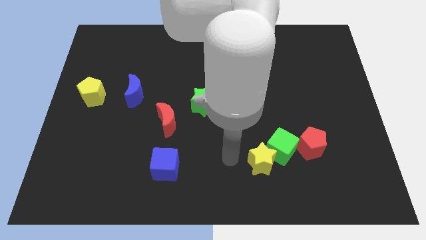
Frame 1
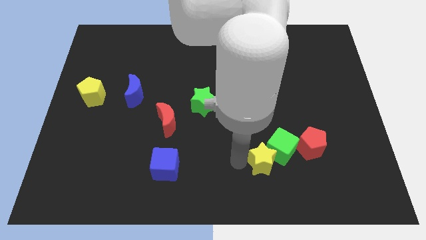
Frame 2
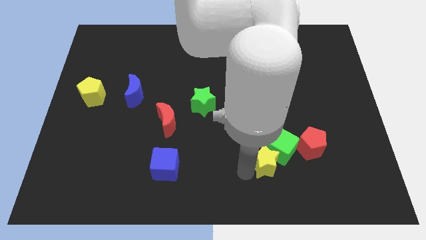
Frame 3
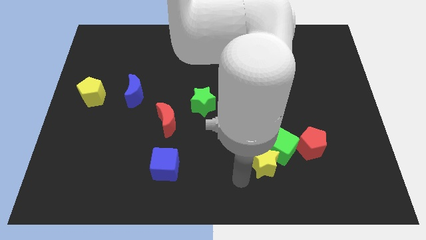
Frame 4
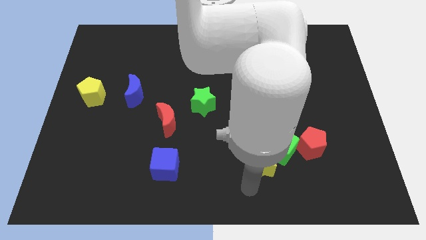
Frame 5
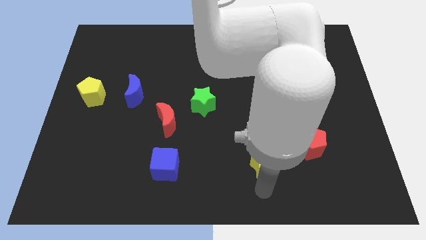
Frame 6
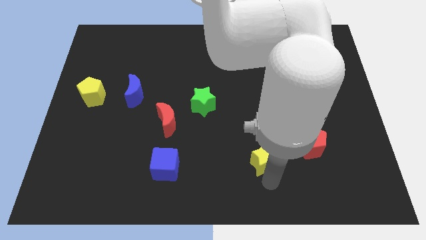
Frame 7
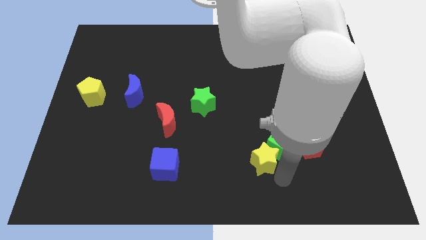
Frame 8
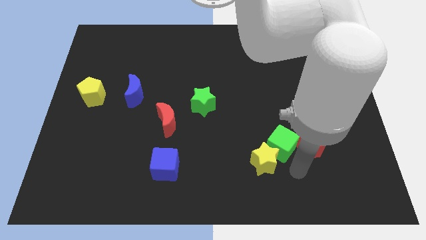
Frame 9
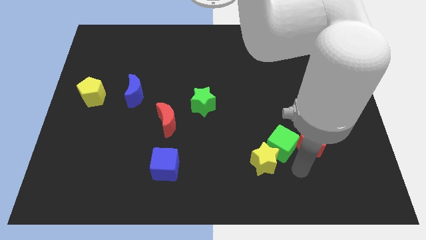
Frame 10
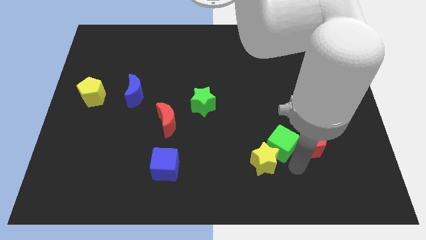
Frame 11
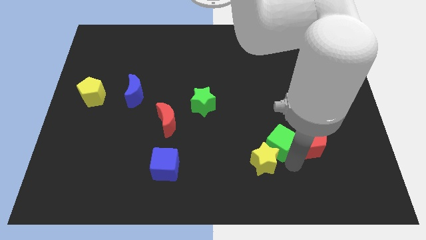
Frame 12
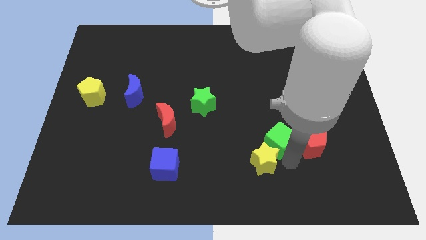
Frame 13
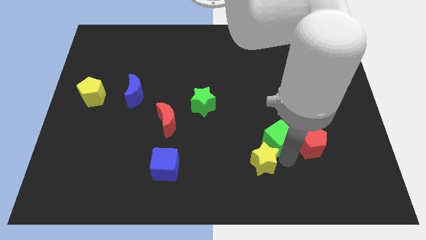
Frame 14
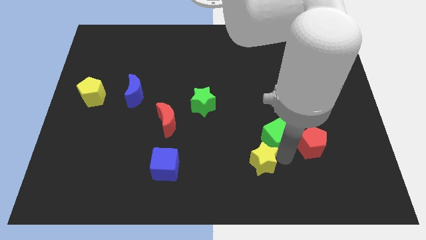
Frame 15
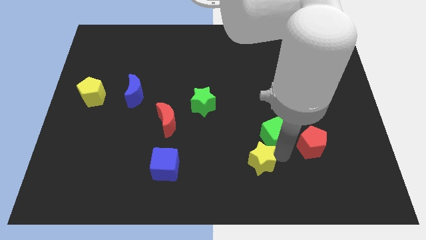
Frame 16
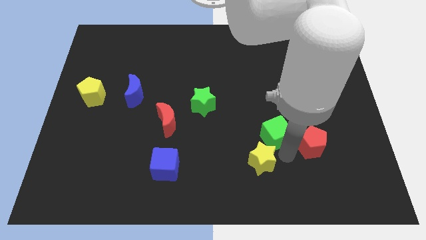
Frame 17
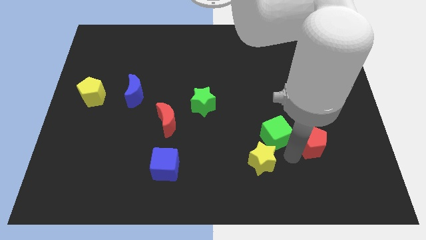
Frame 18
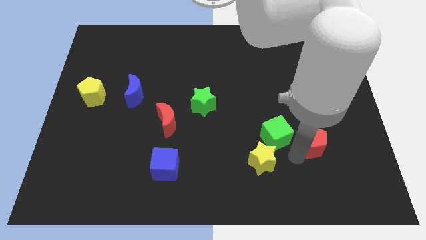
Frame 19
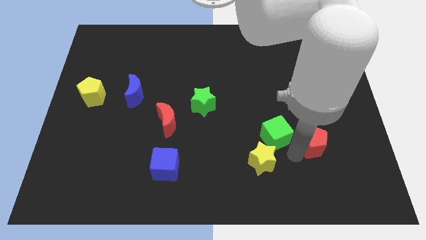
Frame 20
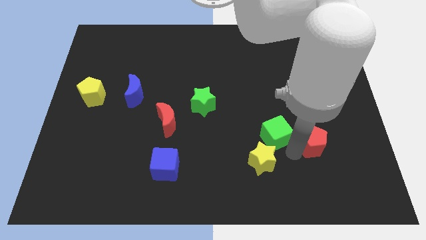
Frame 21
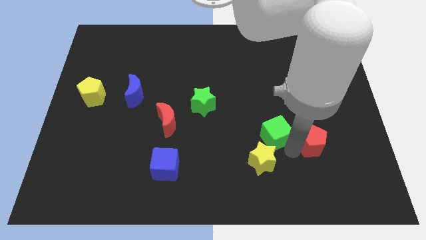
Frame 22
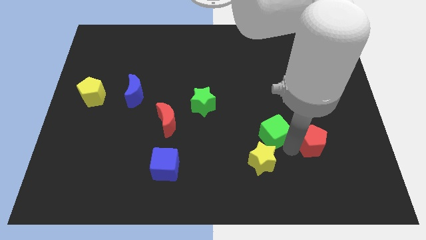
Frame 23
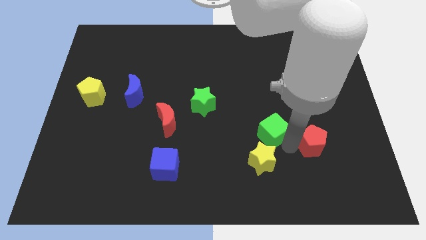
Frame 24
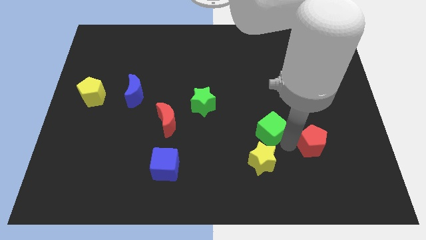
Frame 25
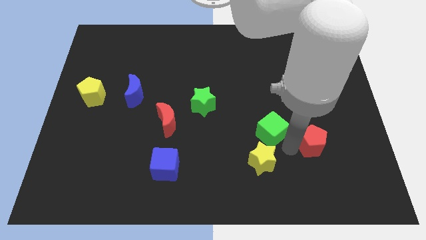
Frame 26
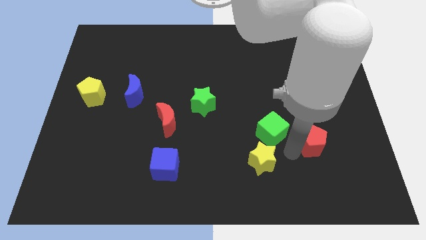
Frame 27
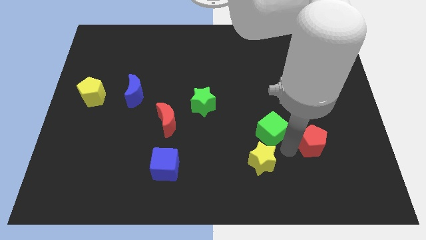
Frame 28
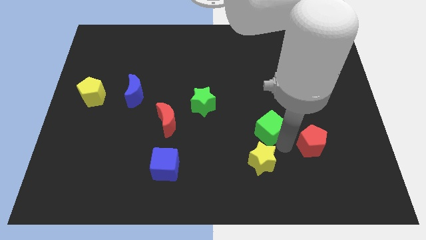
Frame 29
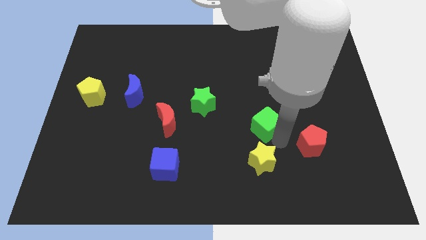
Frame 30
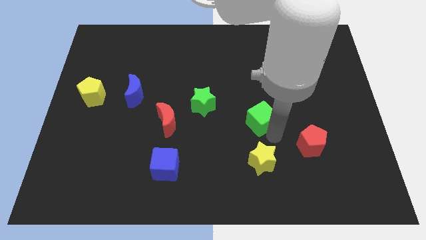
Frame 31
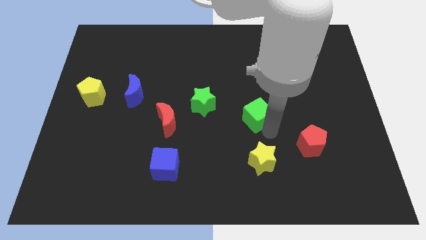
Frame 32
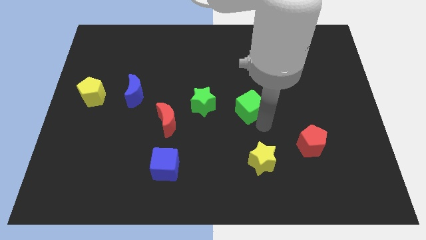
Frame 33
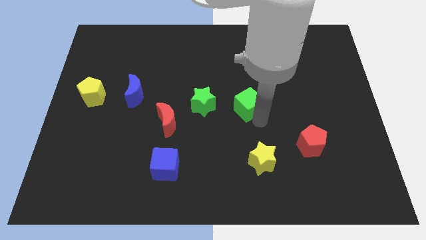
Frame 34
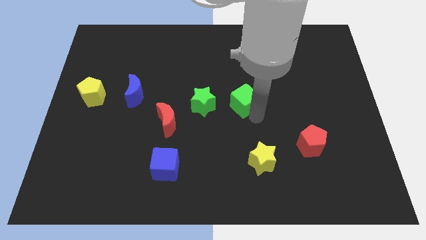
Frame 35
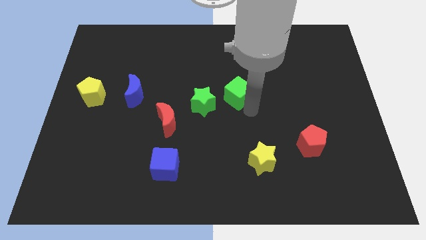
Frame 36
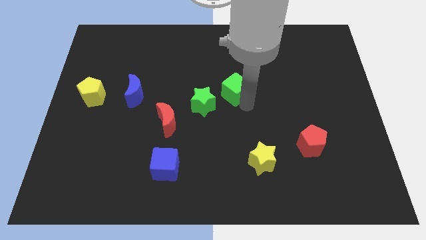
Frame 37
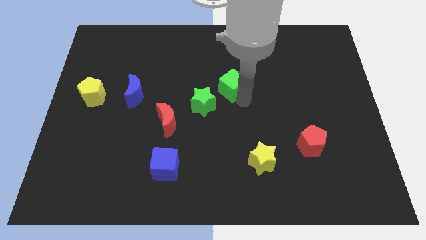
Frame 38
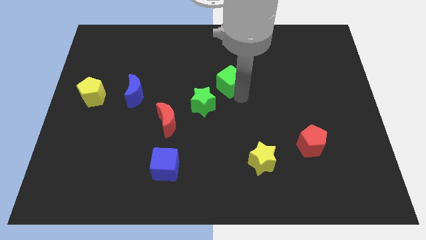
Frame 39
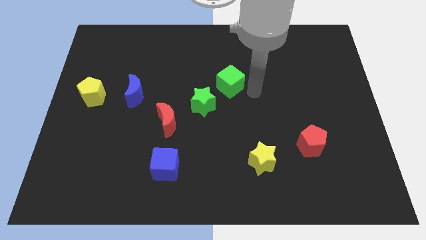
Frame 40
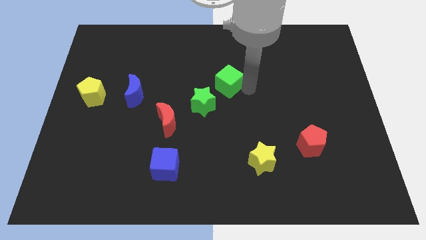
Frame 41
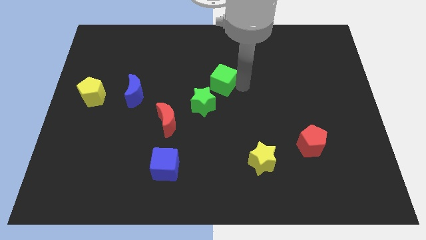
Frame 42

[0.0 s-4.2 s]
push the green cube upwards and to the left diagonally

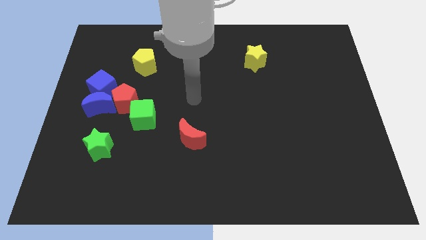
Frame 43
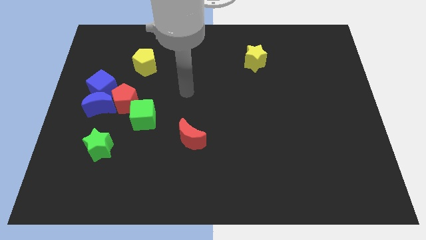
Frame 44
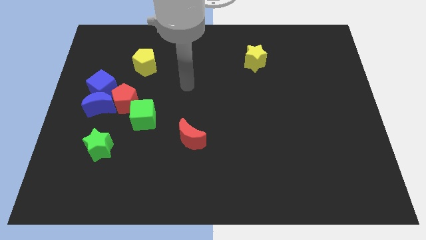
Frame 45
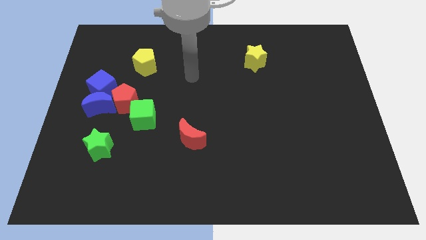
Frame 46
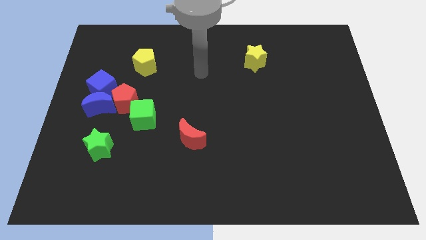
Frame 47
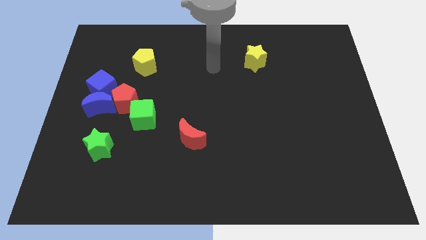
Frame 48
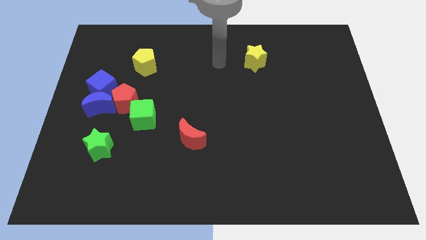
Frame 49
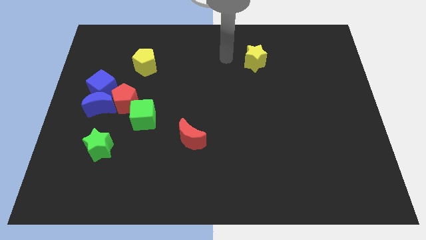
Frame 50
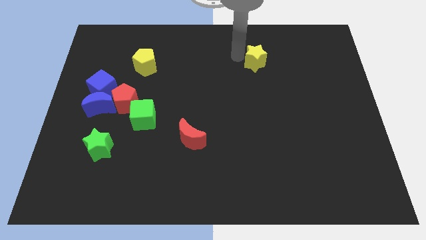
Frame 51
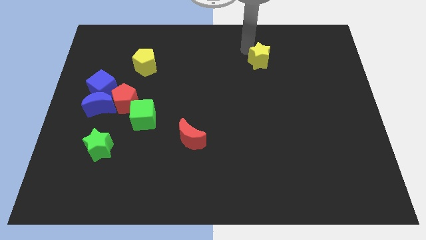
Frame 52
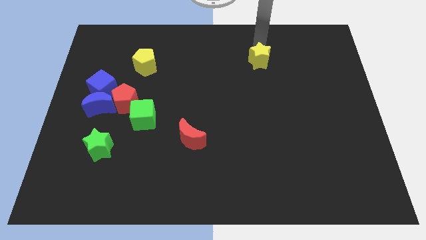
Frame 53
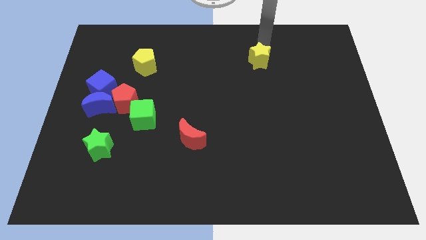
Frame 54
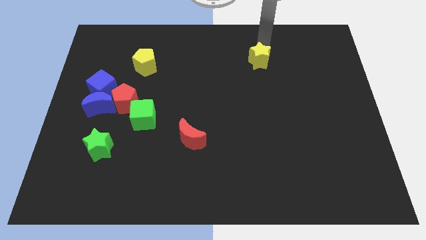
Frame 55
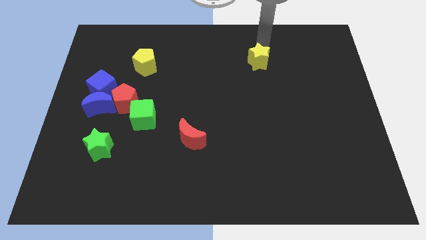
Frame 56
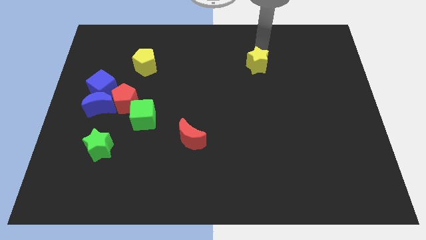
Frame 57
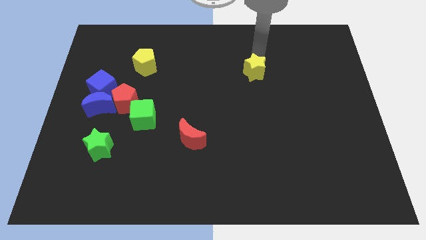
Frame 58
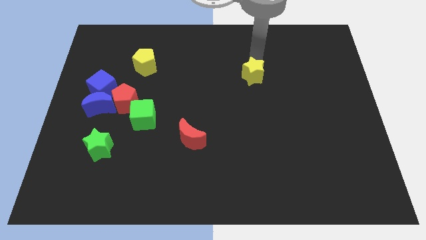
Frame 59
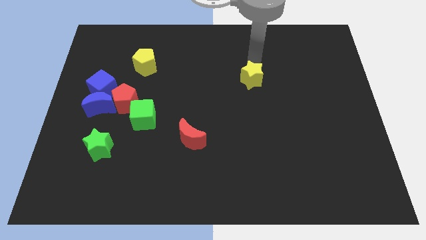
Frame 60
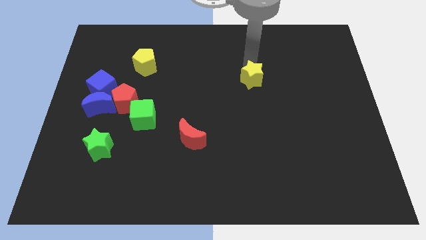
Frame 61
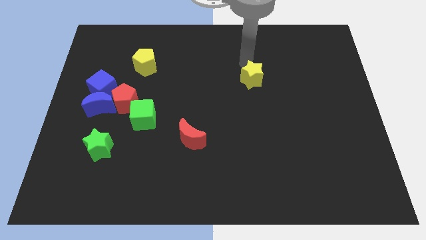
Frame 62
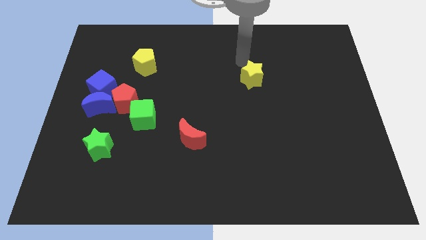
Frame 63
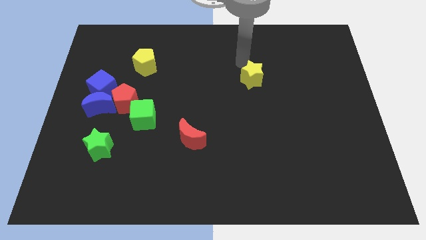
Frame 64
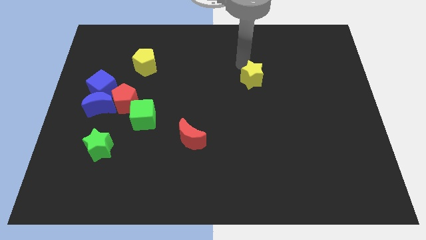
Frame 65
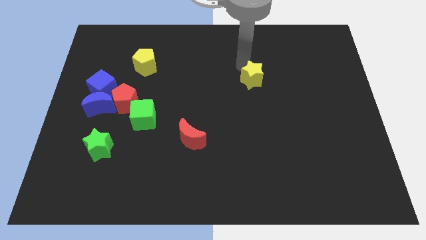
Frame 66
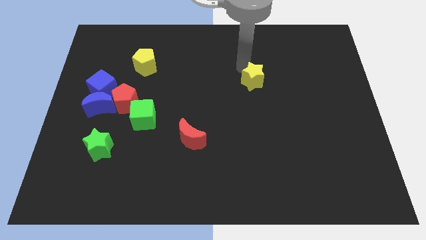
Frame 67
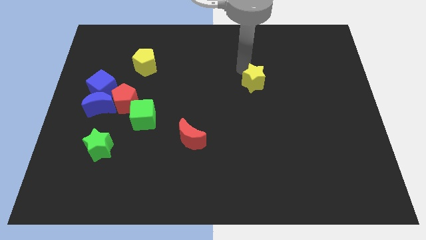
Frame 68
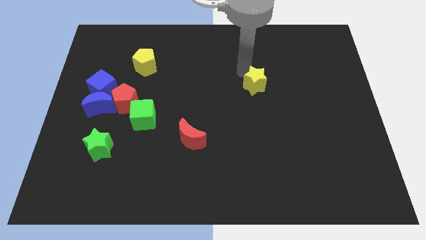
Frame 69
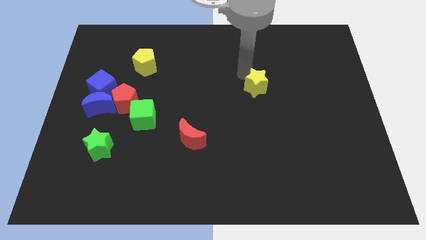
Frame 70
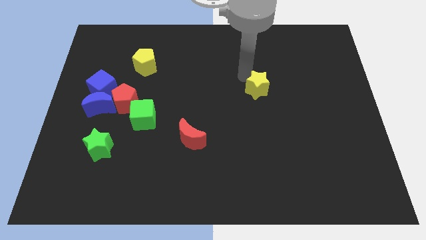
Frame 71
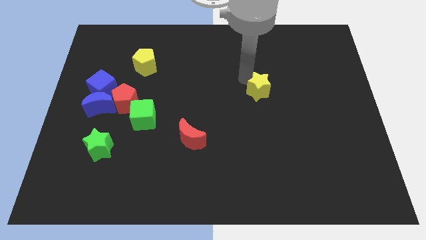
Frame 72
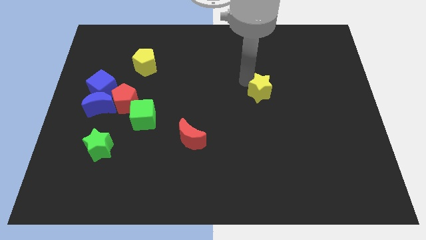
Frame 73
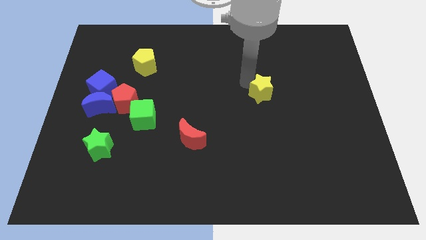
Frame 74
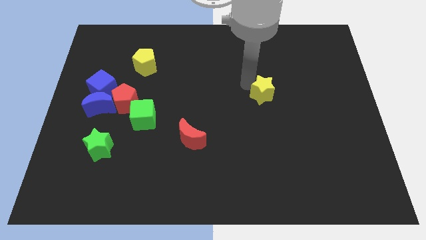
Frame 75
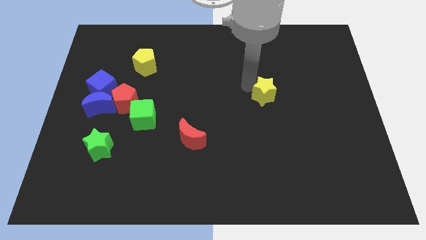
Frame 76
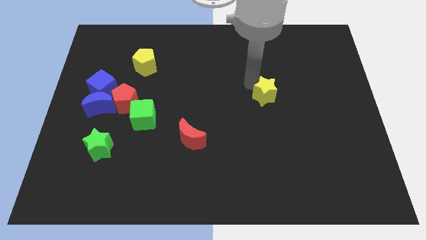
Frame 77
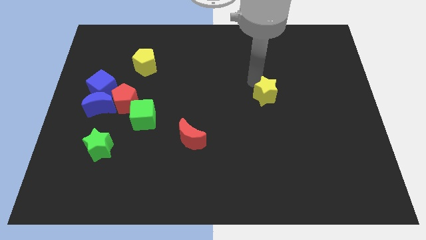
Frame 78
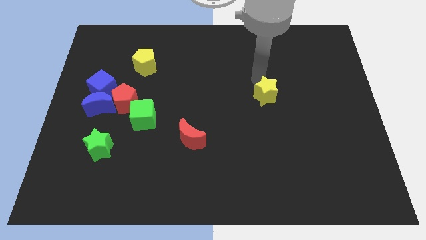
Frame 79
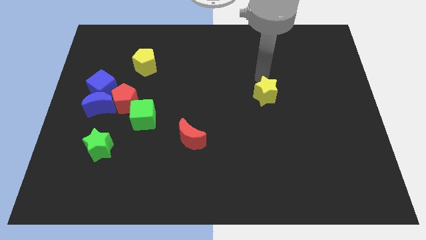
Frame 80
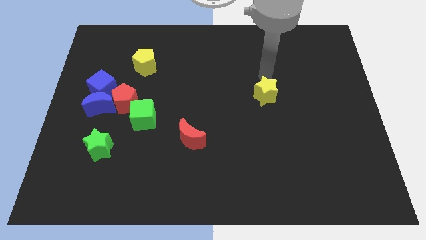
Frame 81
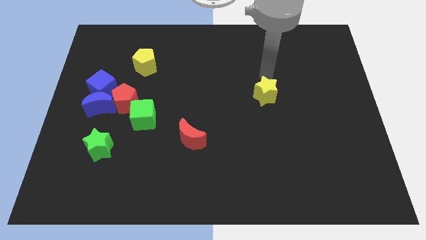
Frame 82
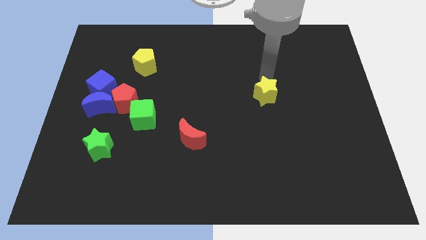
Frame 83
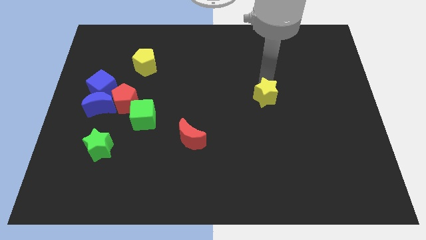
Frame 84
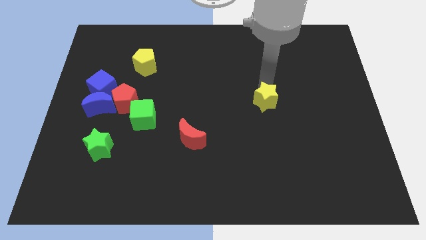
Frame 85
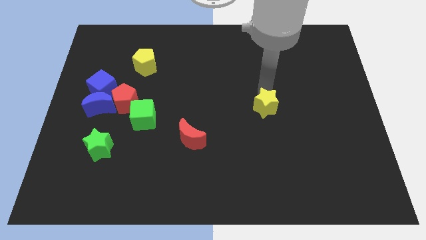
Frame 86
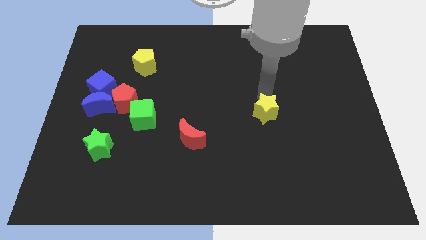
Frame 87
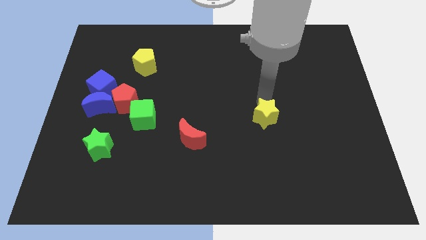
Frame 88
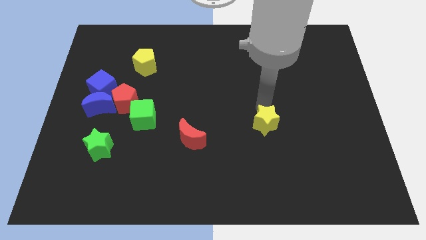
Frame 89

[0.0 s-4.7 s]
move the yellow star down
